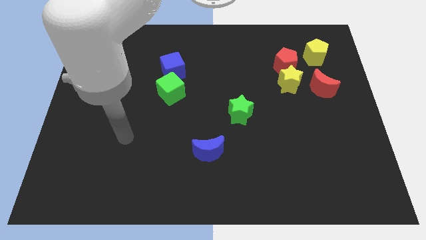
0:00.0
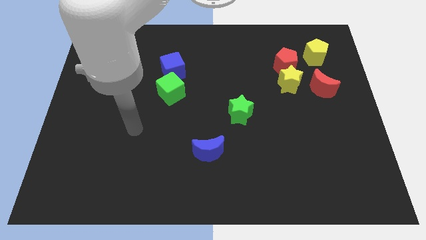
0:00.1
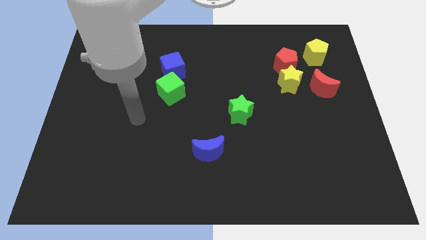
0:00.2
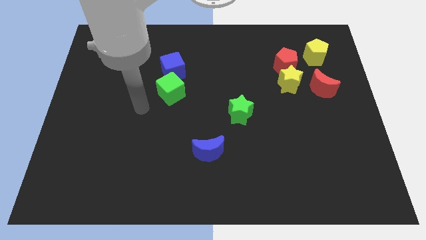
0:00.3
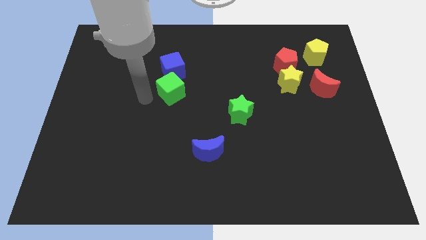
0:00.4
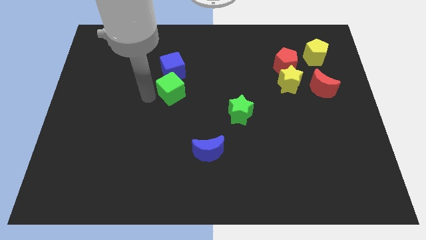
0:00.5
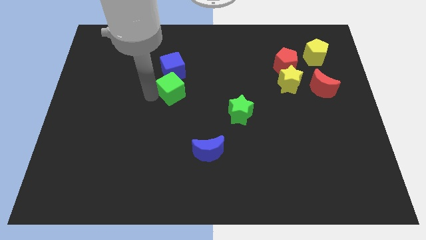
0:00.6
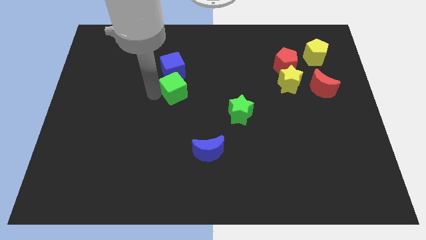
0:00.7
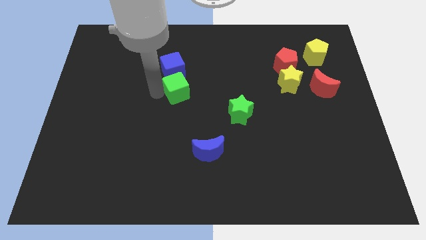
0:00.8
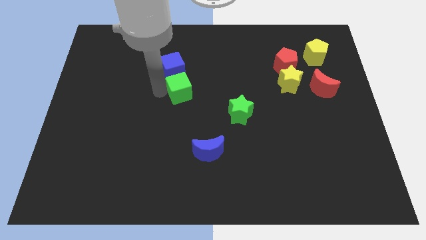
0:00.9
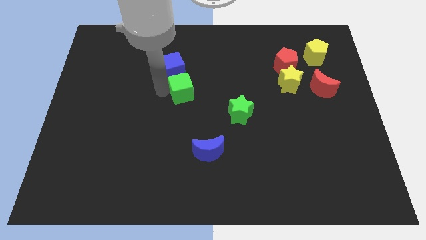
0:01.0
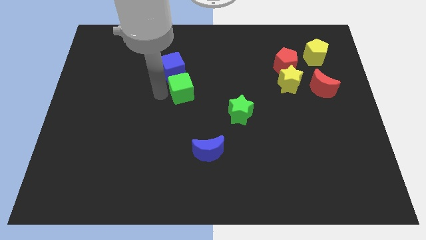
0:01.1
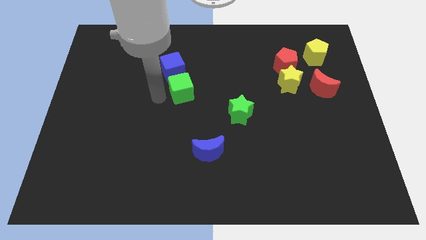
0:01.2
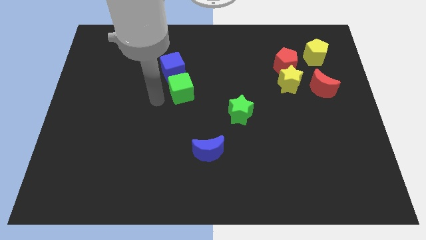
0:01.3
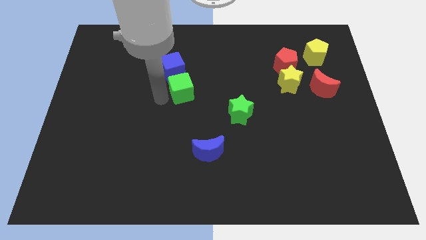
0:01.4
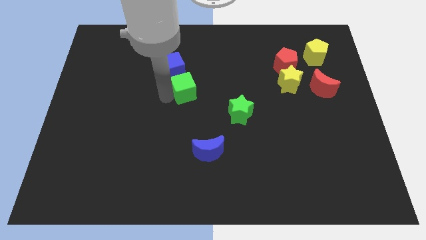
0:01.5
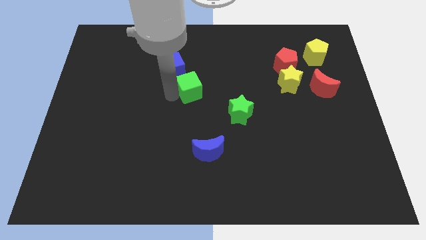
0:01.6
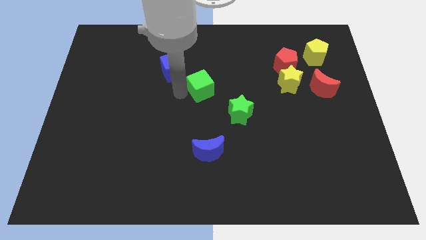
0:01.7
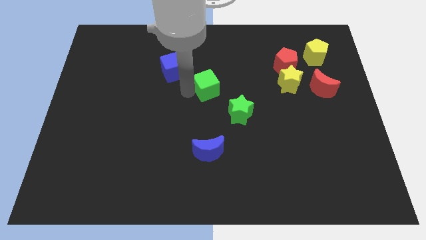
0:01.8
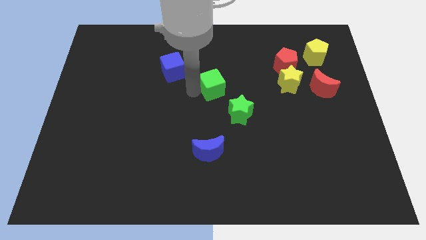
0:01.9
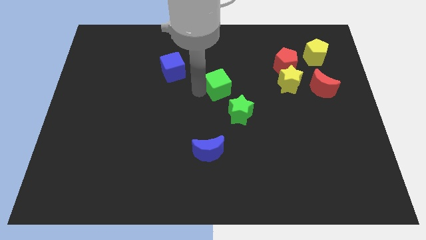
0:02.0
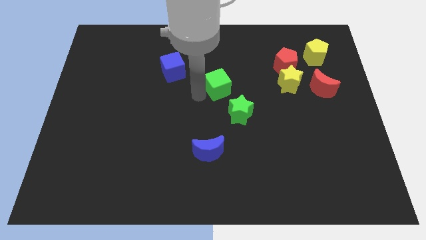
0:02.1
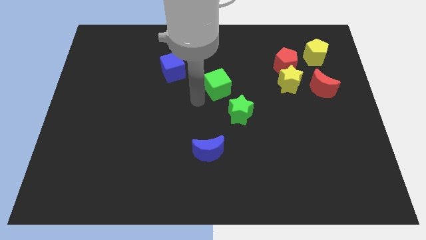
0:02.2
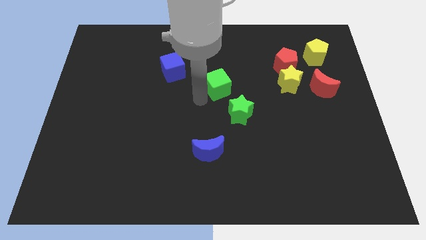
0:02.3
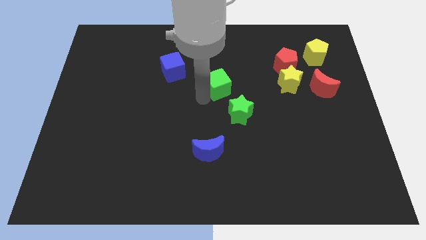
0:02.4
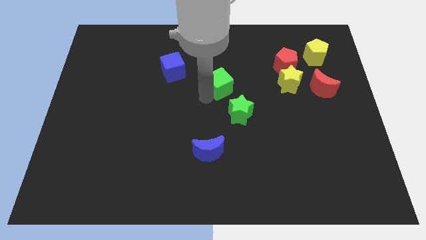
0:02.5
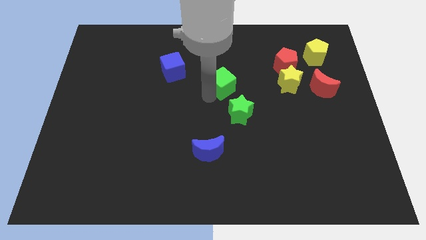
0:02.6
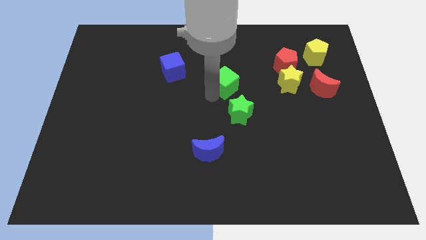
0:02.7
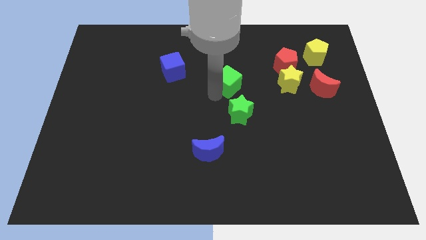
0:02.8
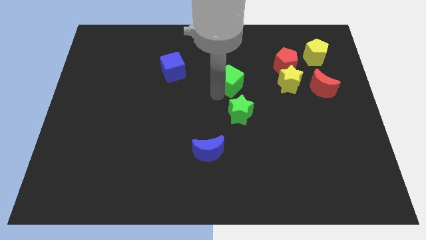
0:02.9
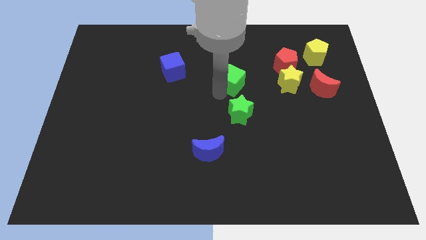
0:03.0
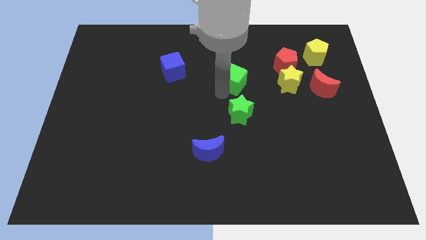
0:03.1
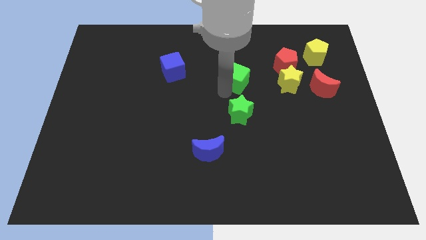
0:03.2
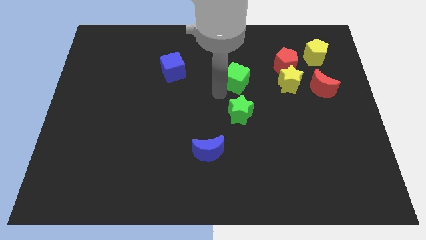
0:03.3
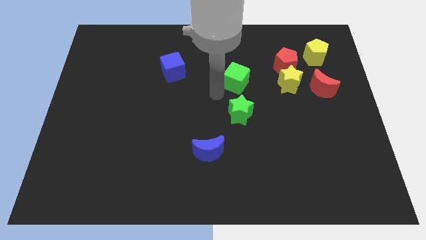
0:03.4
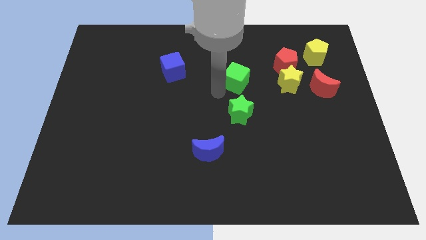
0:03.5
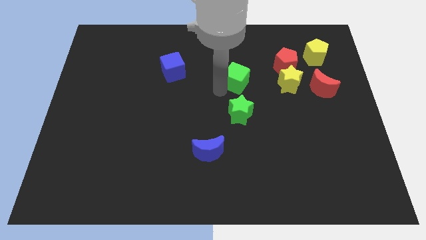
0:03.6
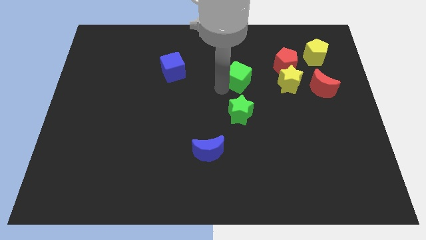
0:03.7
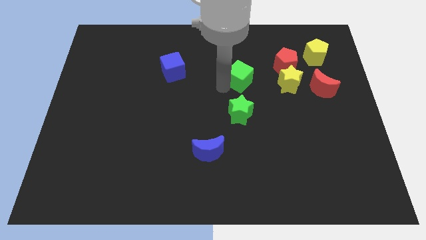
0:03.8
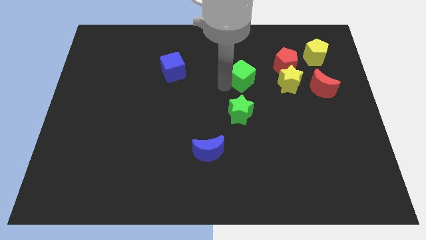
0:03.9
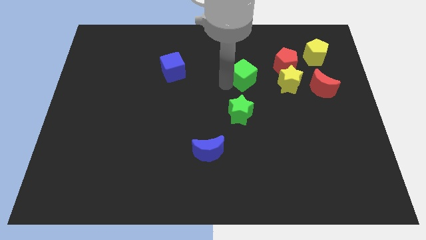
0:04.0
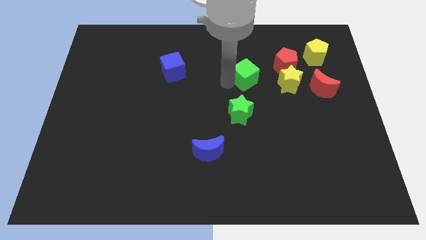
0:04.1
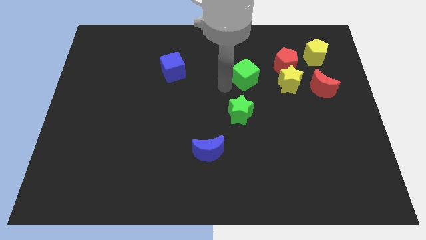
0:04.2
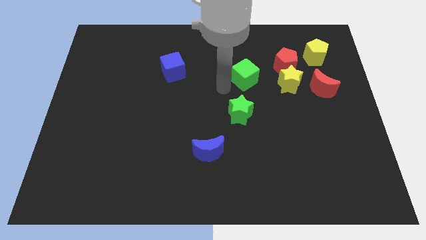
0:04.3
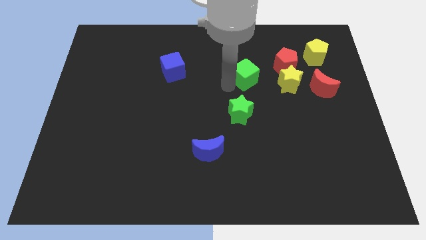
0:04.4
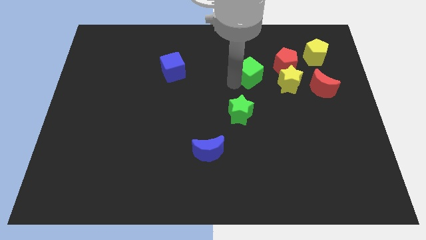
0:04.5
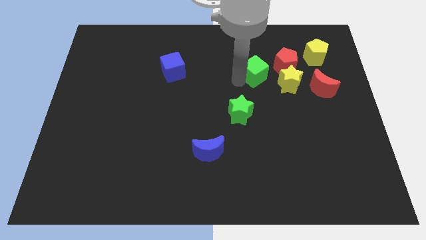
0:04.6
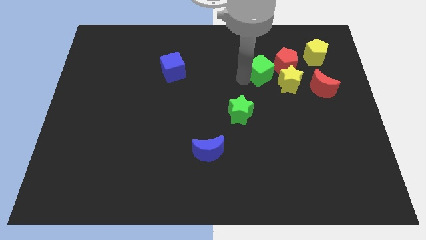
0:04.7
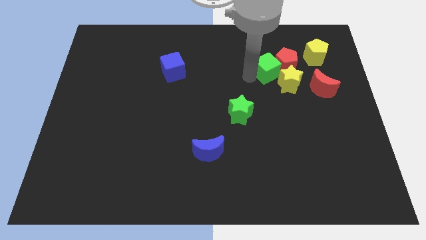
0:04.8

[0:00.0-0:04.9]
slide the green cube next to the red pentagon

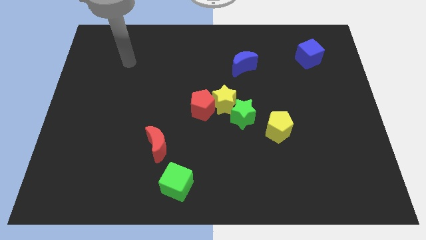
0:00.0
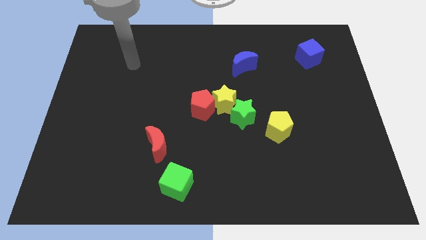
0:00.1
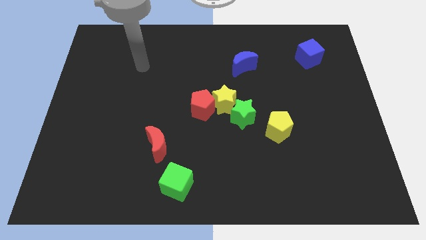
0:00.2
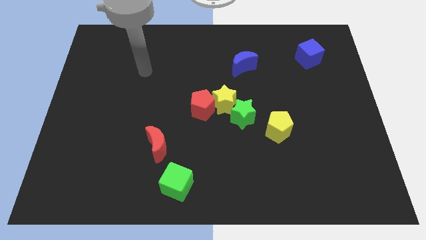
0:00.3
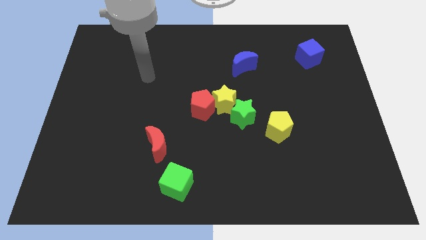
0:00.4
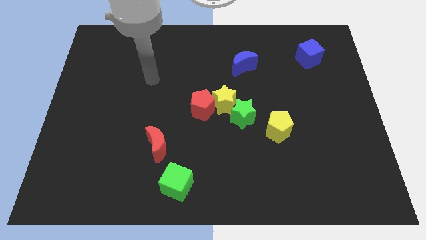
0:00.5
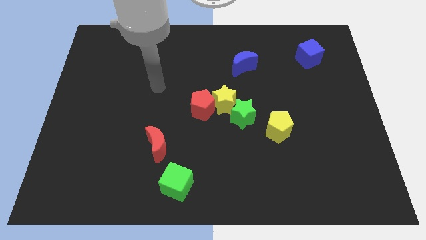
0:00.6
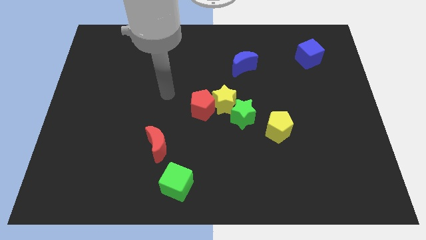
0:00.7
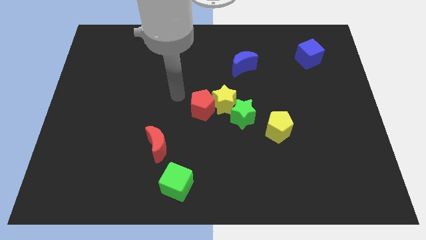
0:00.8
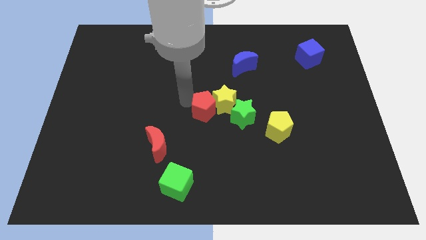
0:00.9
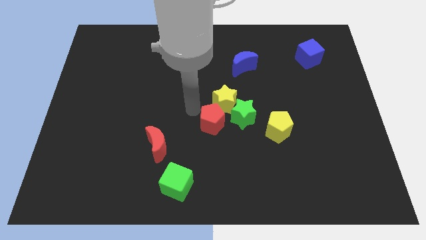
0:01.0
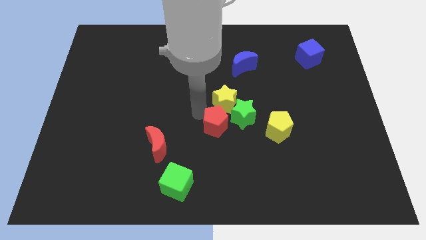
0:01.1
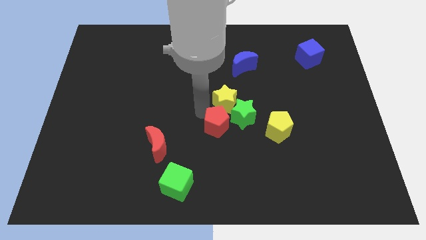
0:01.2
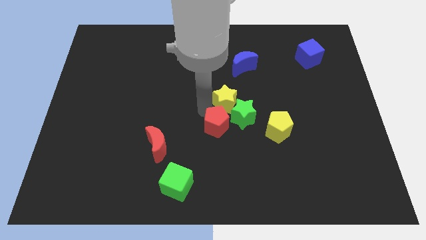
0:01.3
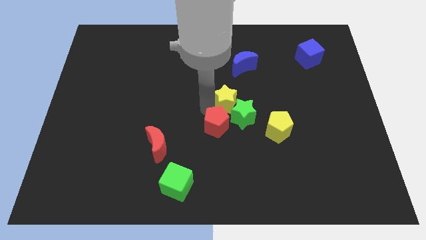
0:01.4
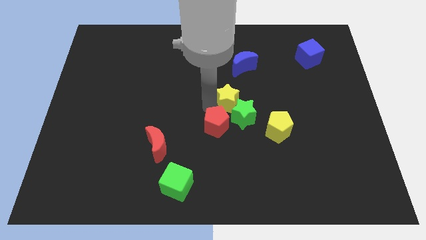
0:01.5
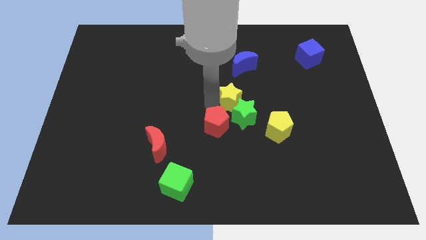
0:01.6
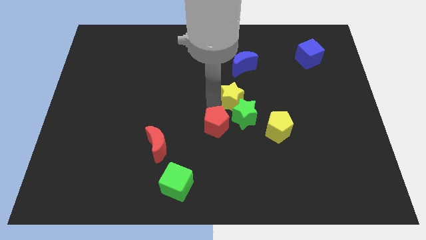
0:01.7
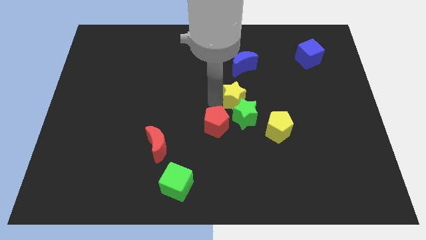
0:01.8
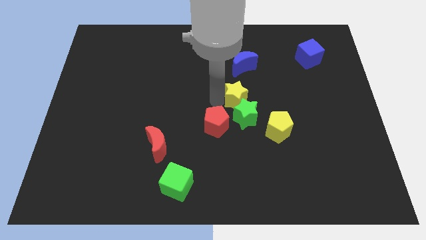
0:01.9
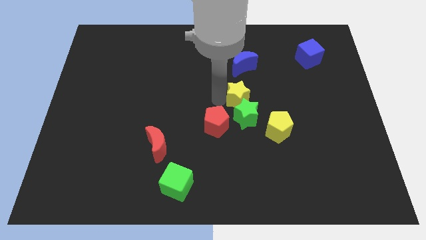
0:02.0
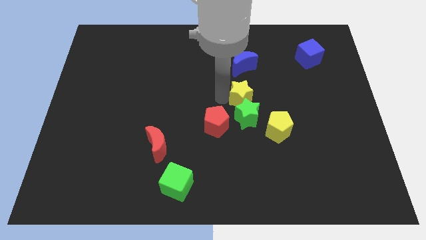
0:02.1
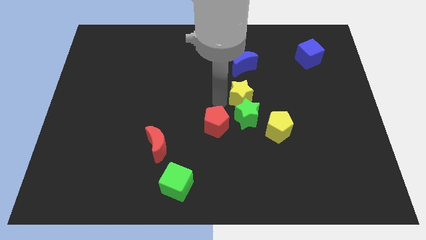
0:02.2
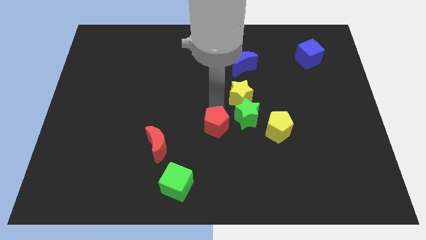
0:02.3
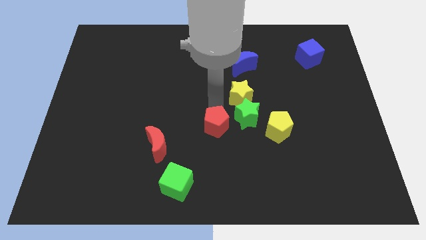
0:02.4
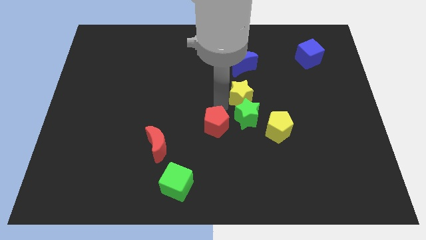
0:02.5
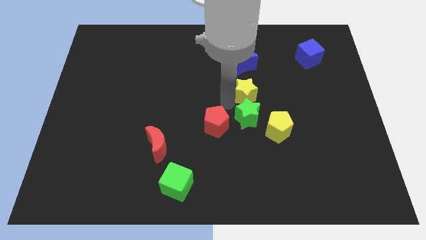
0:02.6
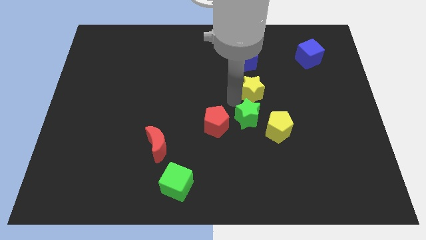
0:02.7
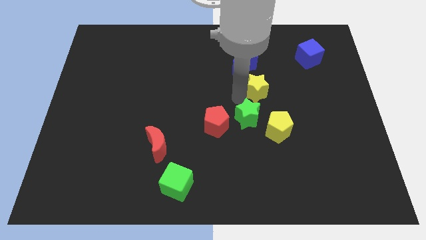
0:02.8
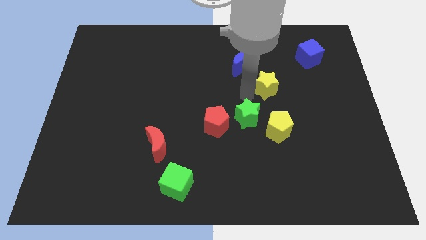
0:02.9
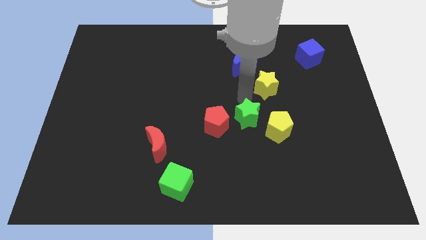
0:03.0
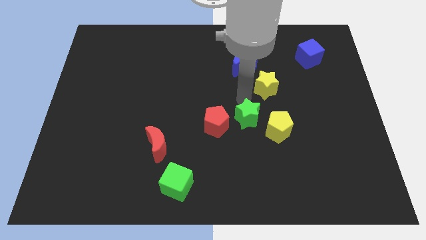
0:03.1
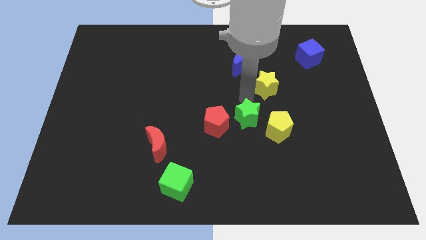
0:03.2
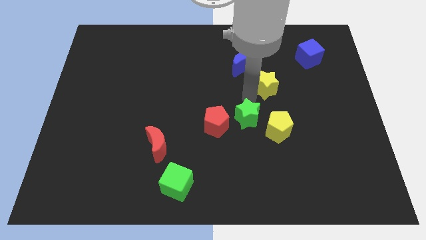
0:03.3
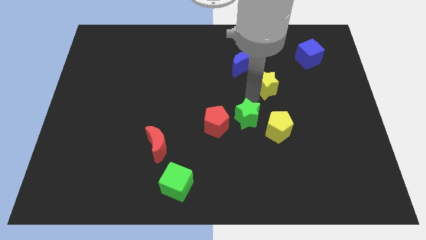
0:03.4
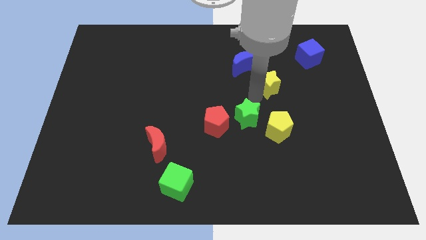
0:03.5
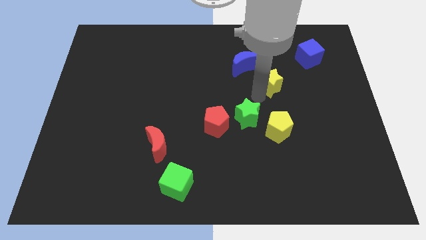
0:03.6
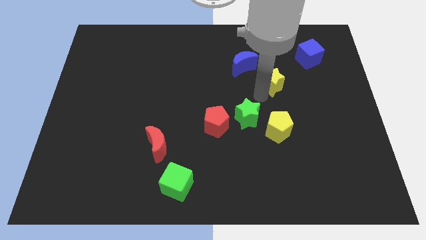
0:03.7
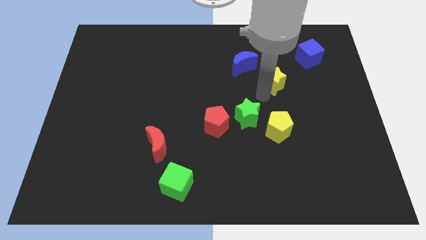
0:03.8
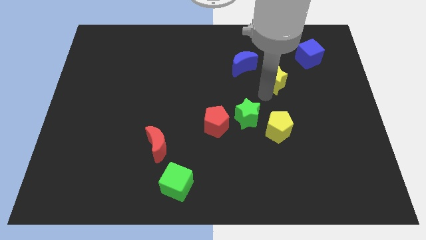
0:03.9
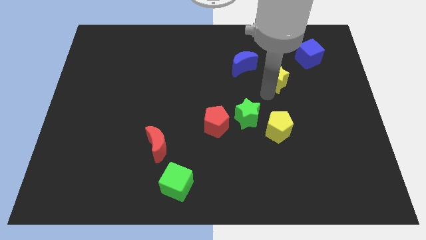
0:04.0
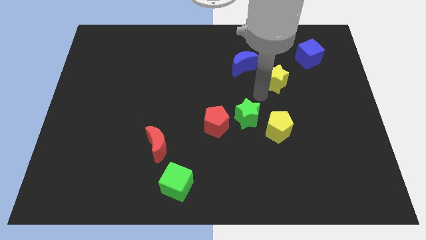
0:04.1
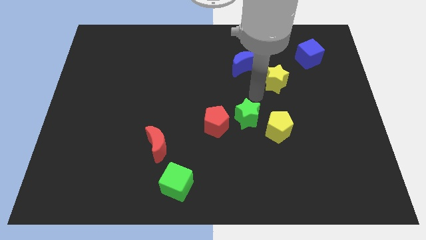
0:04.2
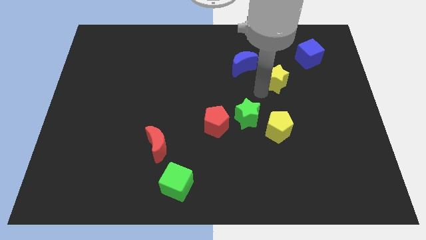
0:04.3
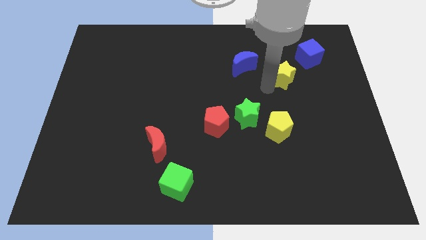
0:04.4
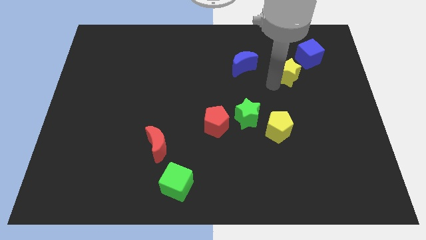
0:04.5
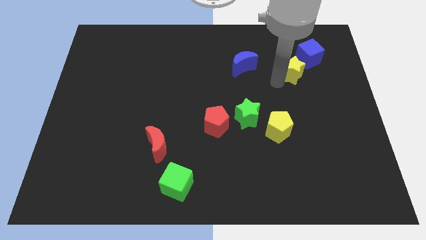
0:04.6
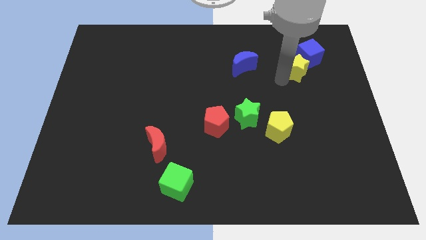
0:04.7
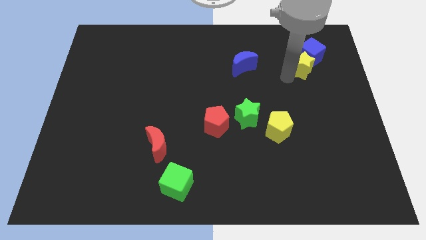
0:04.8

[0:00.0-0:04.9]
put the yellow star towards the blue cube
